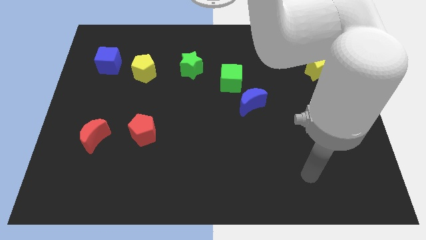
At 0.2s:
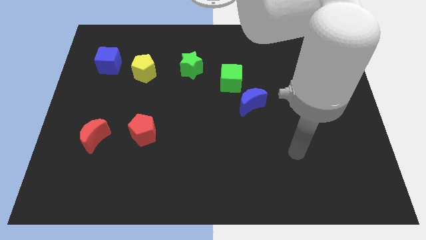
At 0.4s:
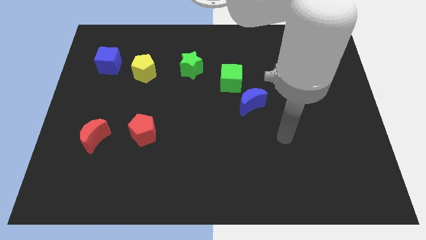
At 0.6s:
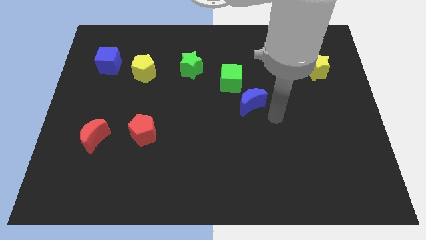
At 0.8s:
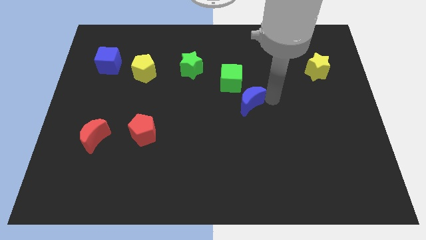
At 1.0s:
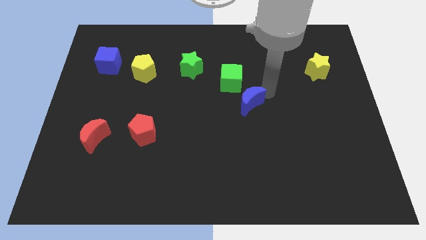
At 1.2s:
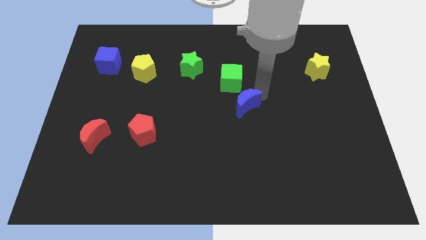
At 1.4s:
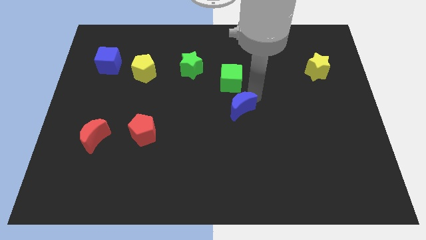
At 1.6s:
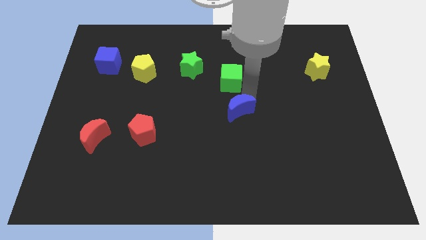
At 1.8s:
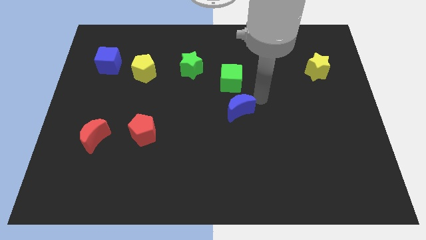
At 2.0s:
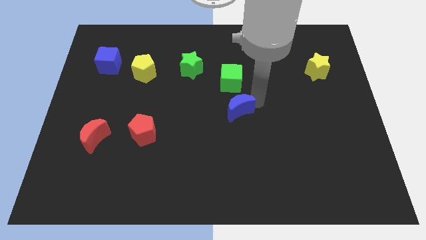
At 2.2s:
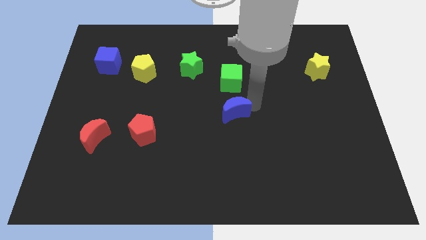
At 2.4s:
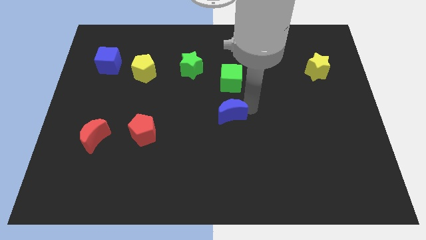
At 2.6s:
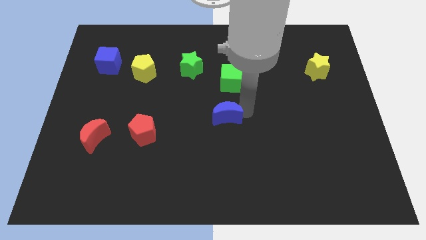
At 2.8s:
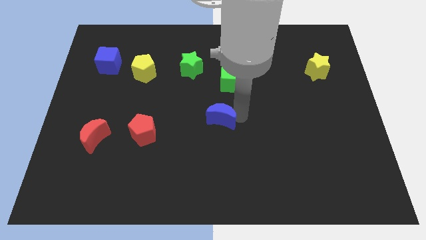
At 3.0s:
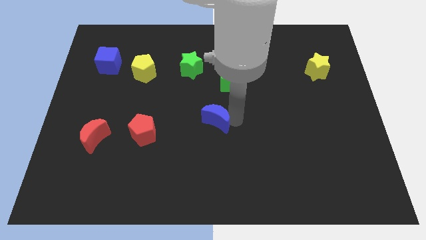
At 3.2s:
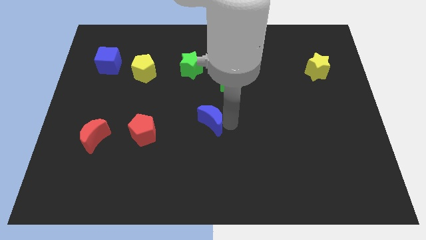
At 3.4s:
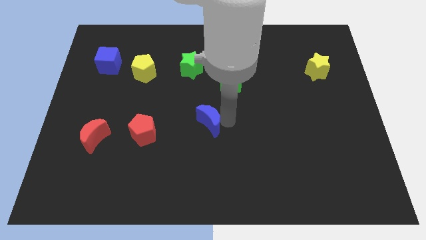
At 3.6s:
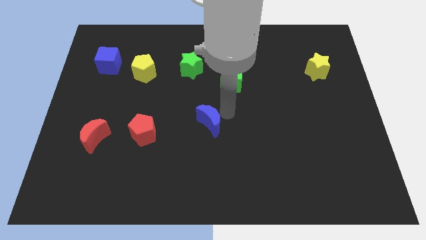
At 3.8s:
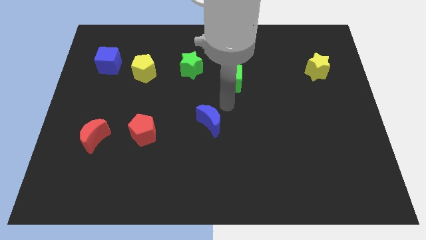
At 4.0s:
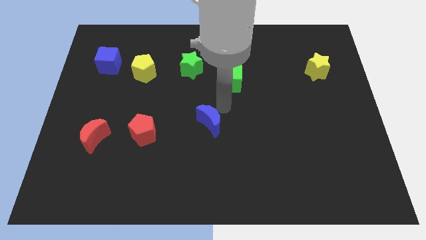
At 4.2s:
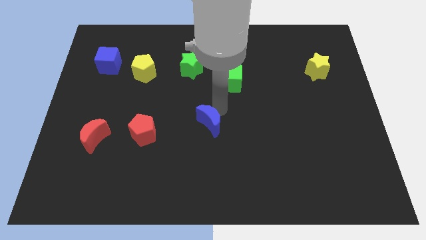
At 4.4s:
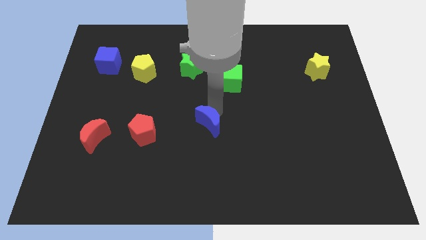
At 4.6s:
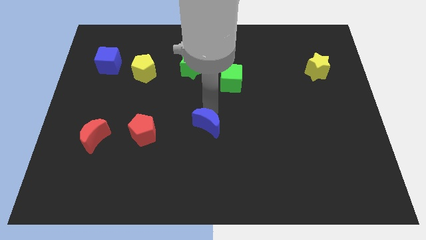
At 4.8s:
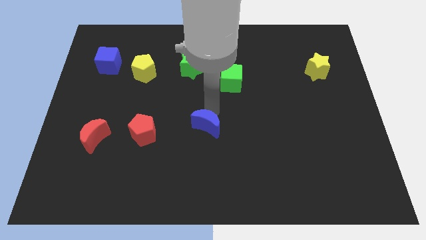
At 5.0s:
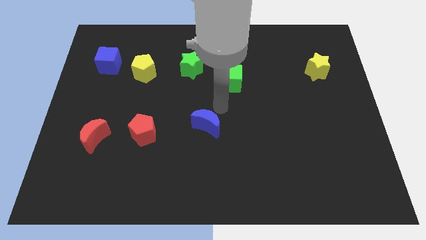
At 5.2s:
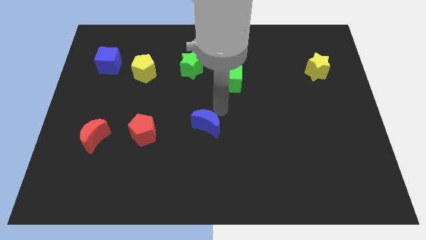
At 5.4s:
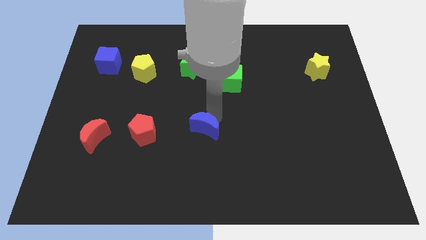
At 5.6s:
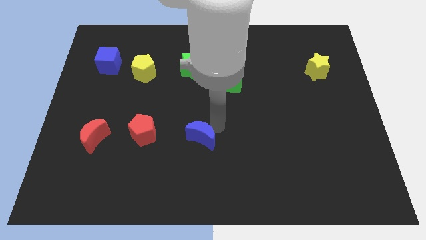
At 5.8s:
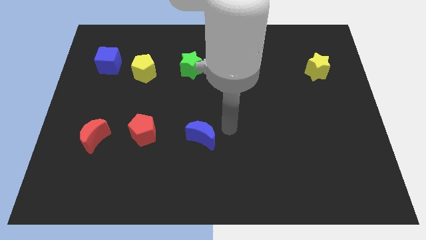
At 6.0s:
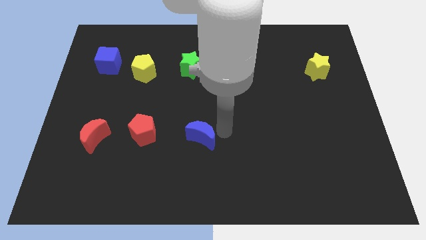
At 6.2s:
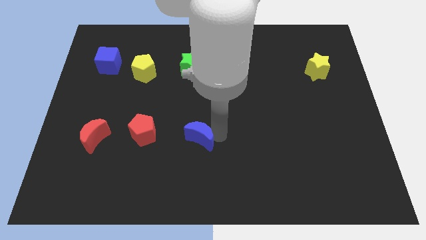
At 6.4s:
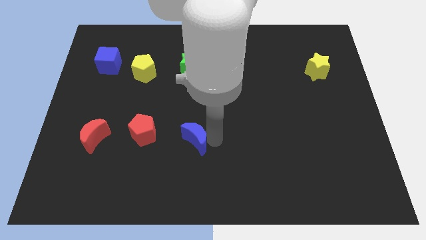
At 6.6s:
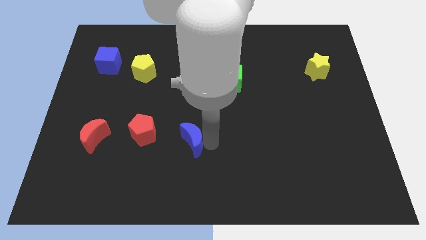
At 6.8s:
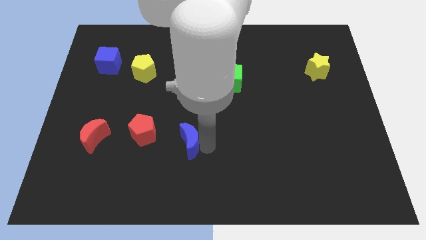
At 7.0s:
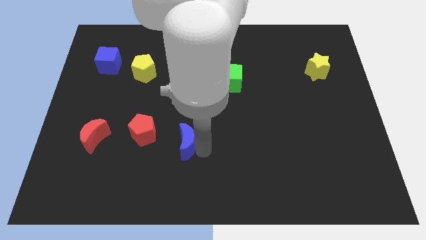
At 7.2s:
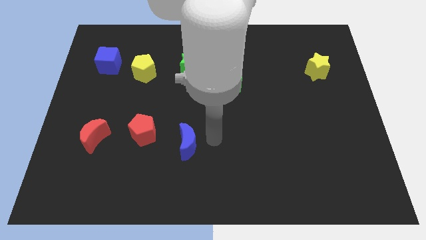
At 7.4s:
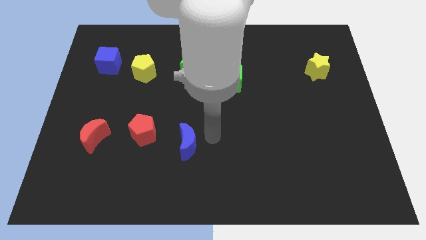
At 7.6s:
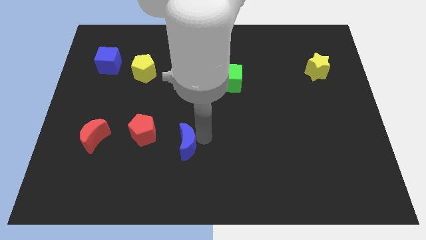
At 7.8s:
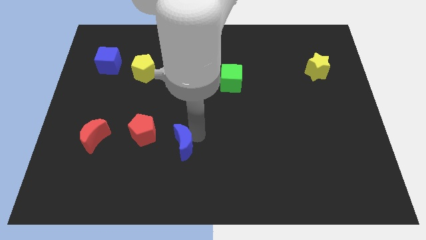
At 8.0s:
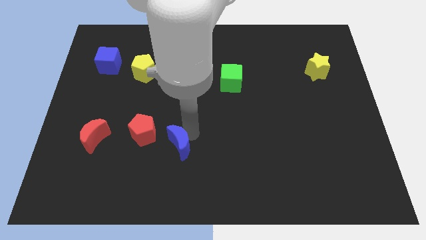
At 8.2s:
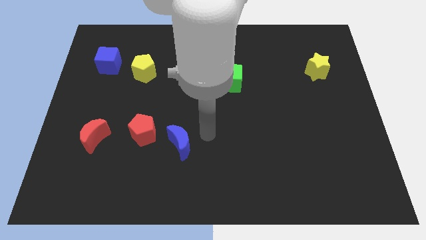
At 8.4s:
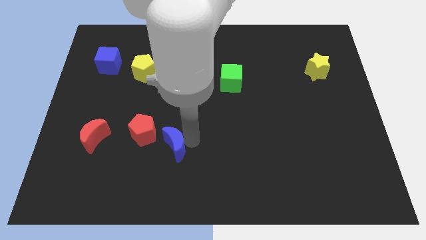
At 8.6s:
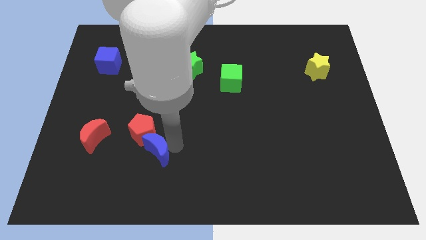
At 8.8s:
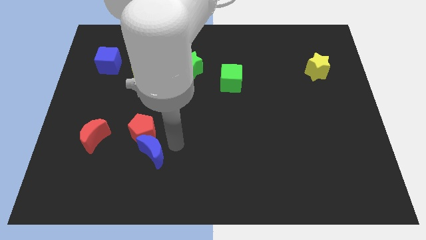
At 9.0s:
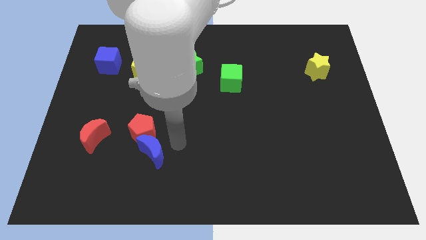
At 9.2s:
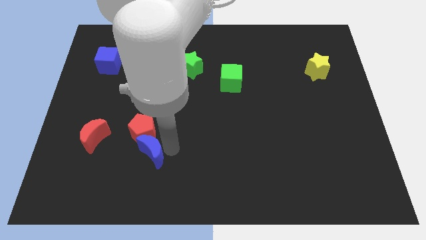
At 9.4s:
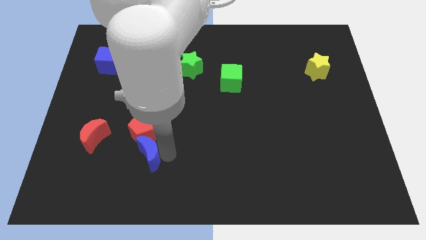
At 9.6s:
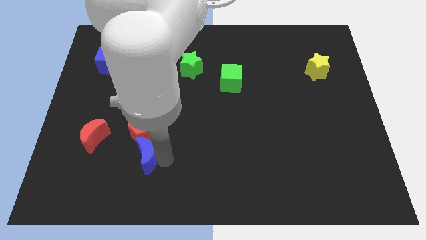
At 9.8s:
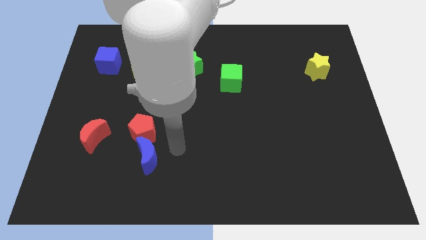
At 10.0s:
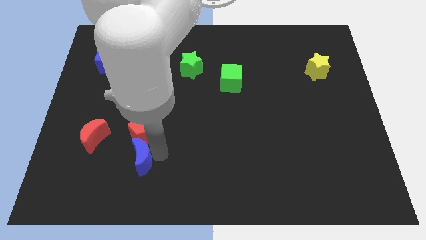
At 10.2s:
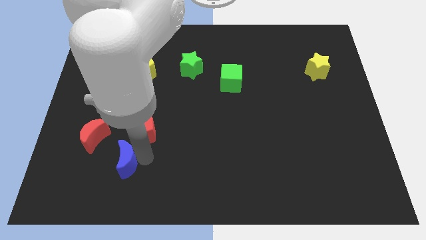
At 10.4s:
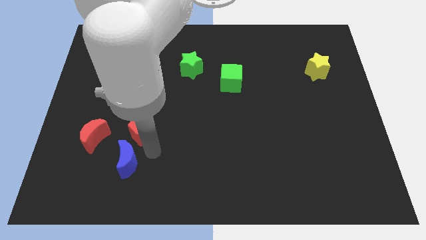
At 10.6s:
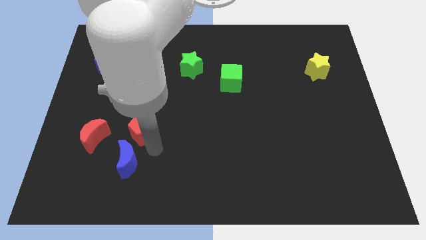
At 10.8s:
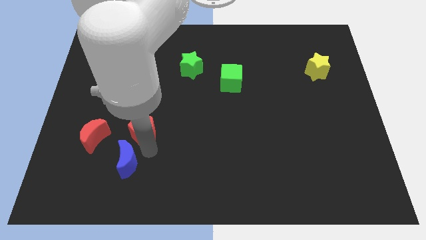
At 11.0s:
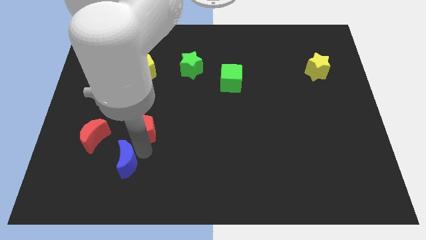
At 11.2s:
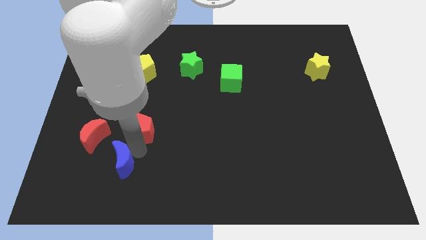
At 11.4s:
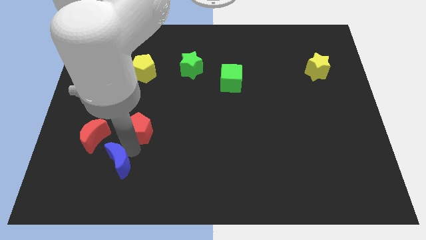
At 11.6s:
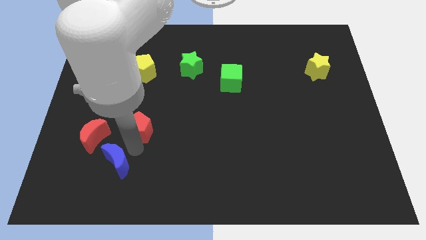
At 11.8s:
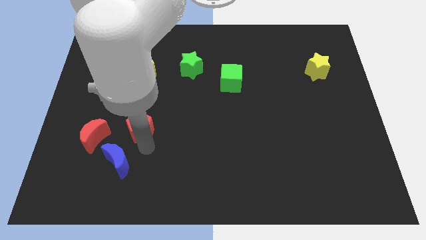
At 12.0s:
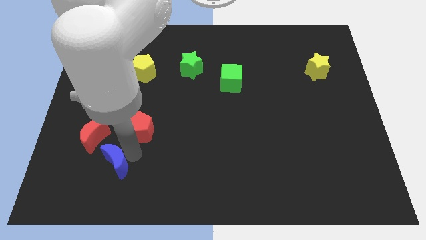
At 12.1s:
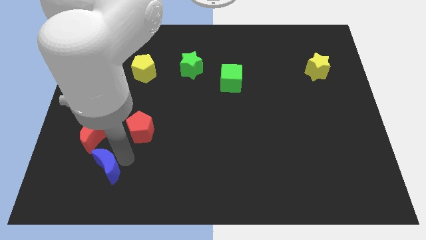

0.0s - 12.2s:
push the blue moon below the red moon

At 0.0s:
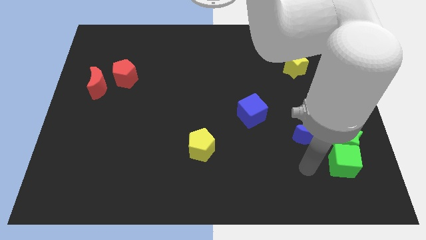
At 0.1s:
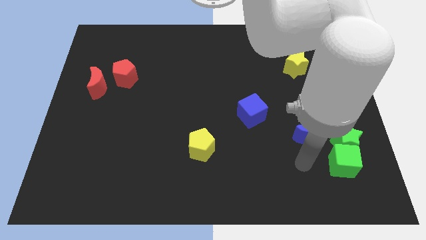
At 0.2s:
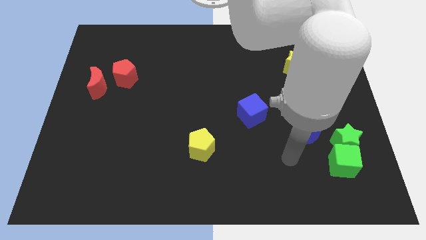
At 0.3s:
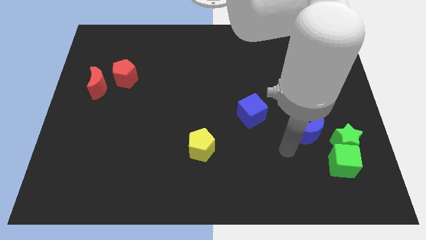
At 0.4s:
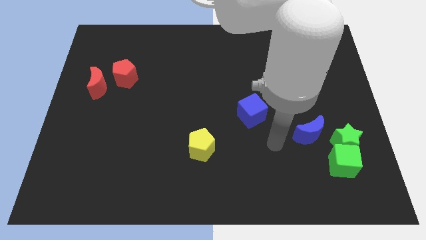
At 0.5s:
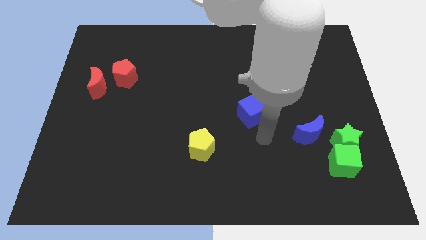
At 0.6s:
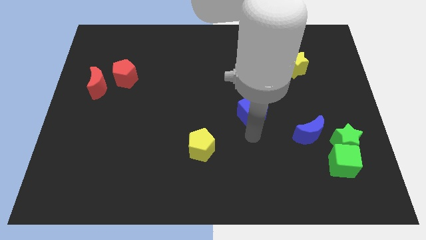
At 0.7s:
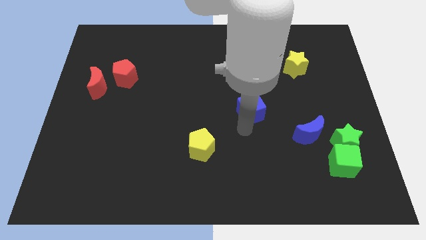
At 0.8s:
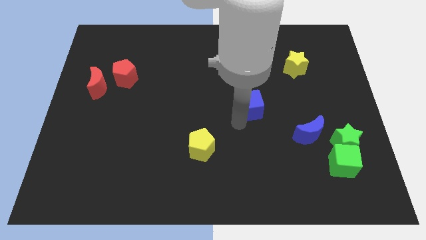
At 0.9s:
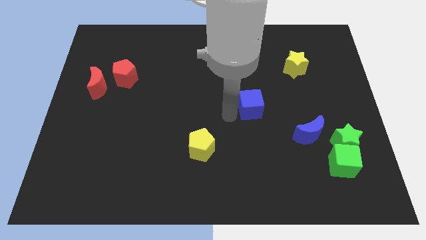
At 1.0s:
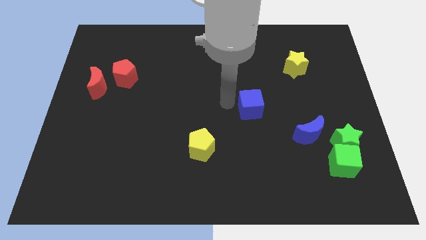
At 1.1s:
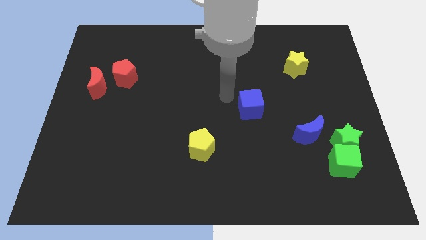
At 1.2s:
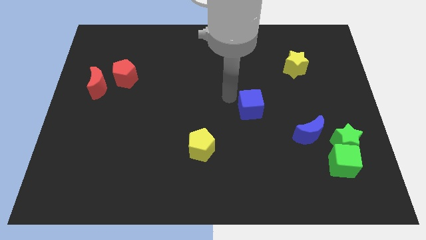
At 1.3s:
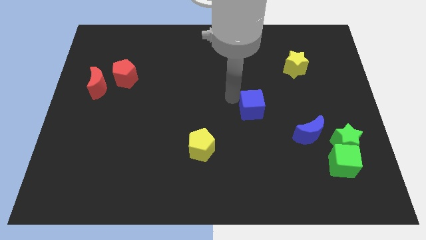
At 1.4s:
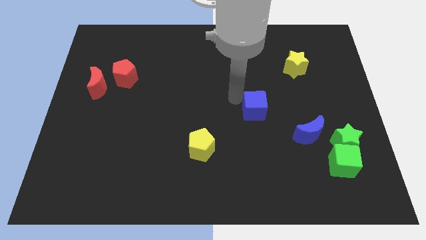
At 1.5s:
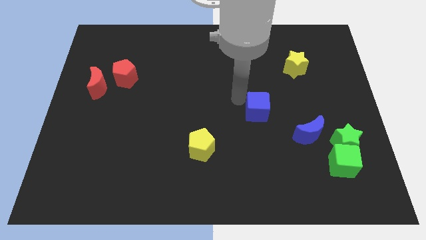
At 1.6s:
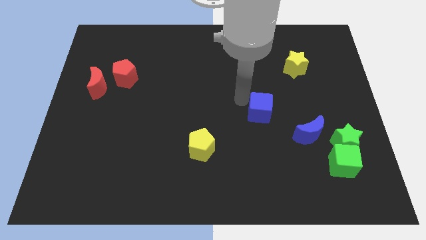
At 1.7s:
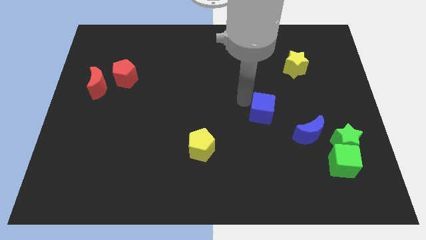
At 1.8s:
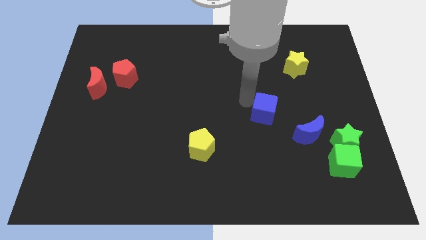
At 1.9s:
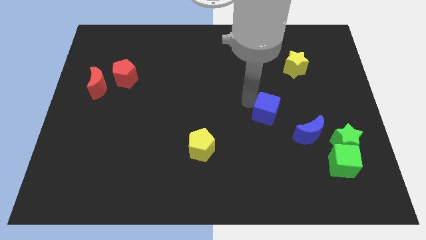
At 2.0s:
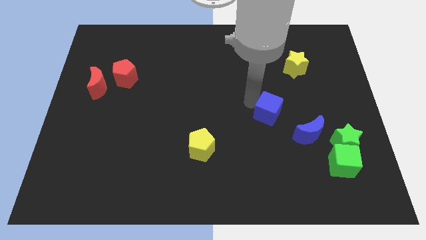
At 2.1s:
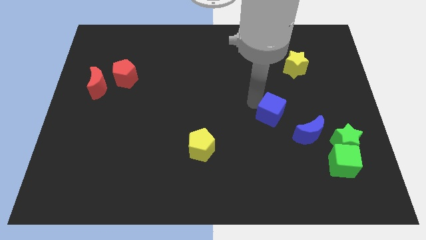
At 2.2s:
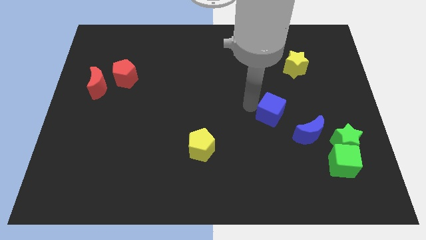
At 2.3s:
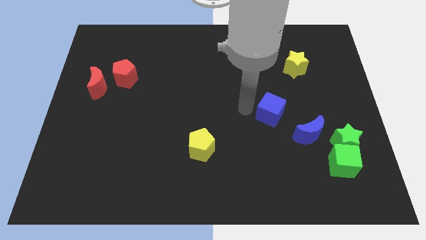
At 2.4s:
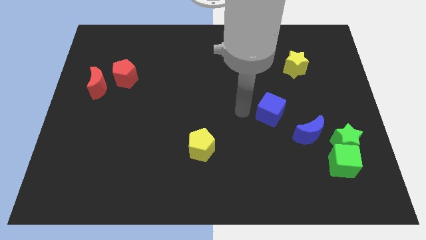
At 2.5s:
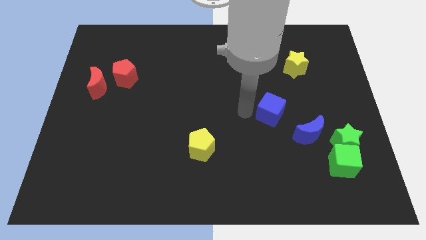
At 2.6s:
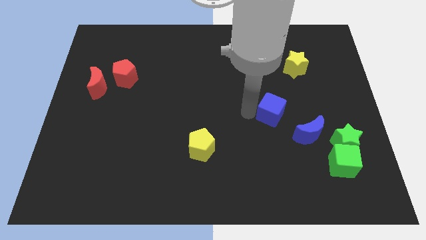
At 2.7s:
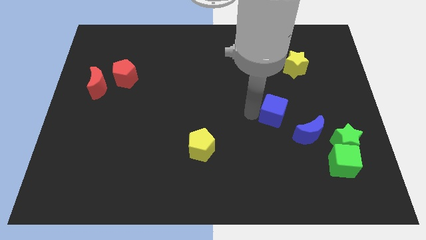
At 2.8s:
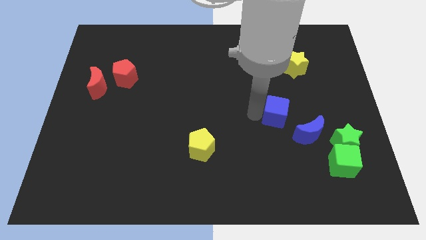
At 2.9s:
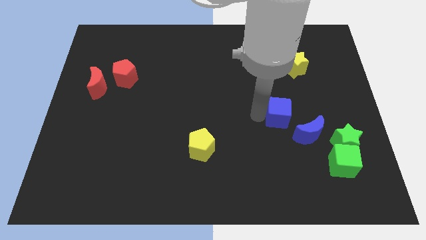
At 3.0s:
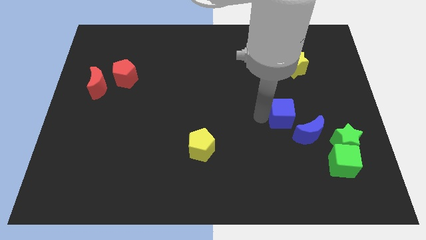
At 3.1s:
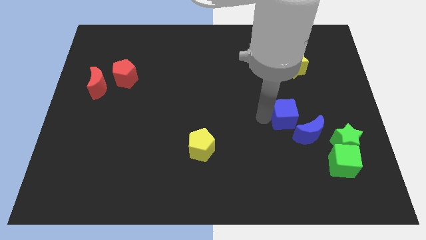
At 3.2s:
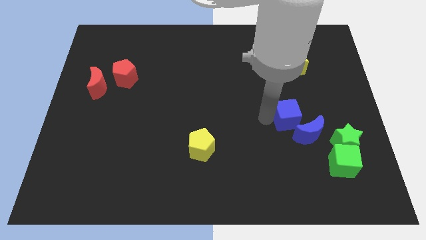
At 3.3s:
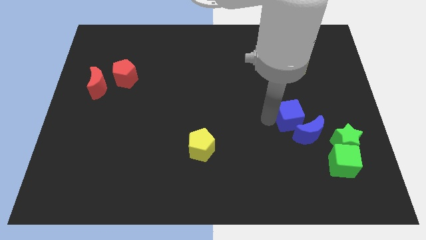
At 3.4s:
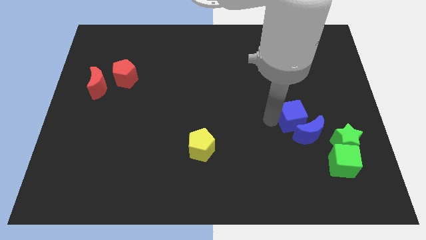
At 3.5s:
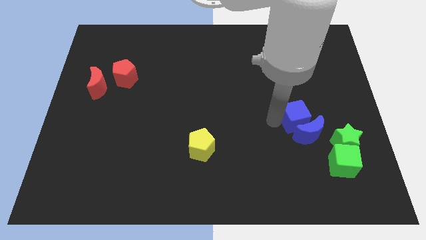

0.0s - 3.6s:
move the blue cube diagonally up and to the left of the green star
